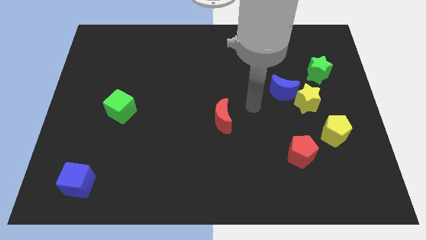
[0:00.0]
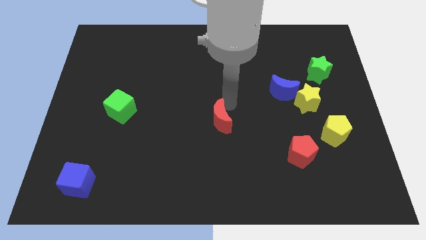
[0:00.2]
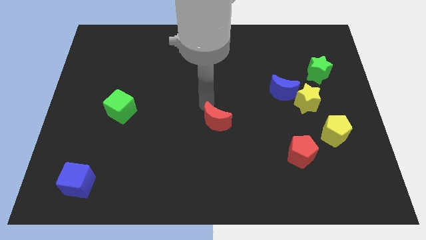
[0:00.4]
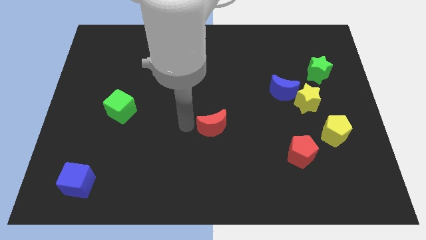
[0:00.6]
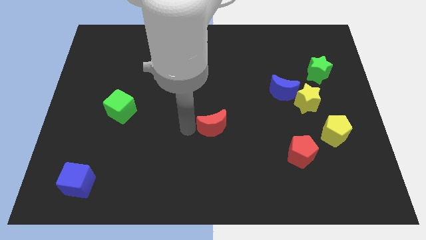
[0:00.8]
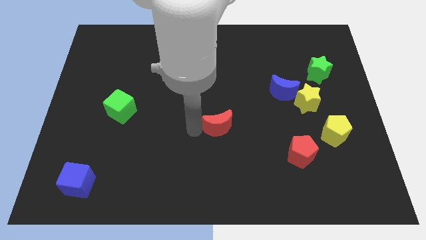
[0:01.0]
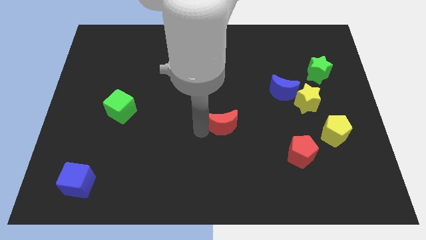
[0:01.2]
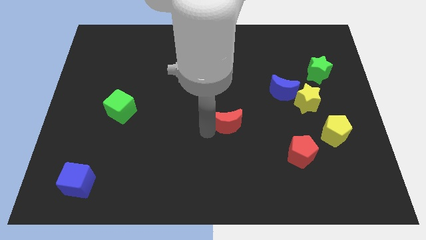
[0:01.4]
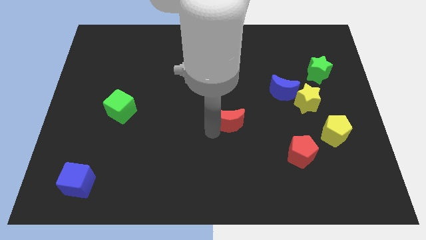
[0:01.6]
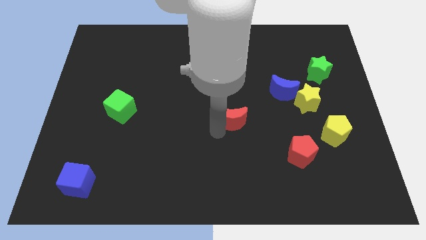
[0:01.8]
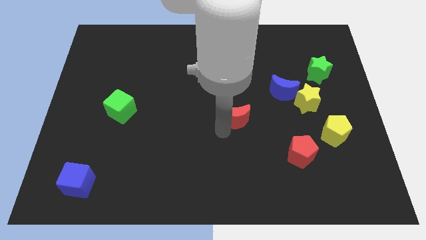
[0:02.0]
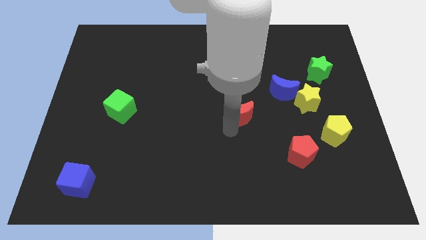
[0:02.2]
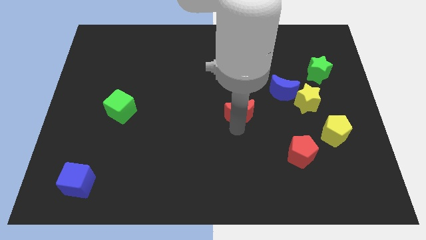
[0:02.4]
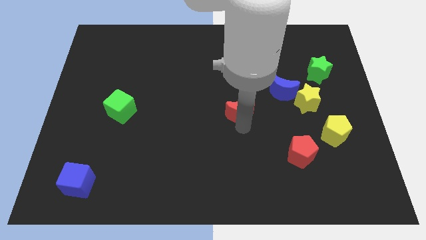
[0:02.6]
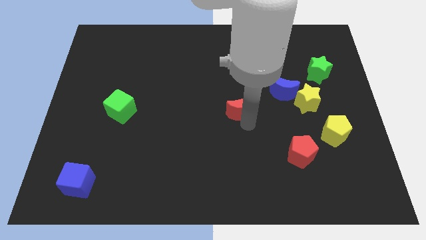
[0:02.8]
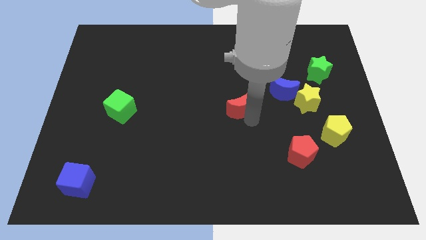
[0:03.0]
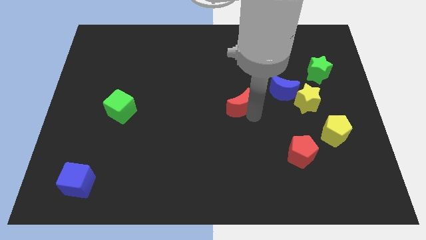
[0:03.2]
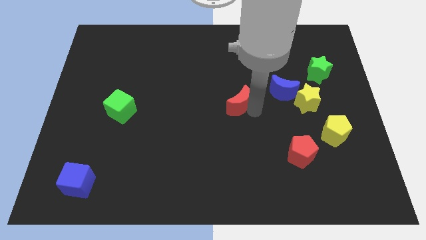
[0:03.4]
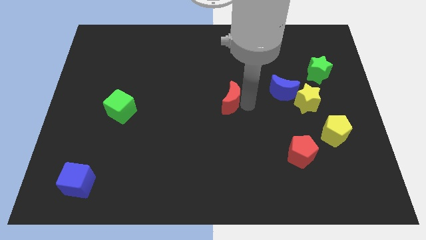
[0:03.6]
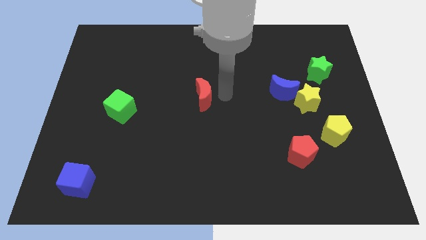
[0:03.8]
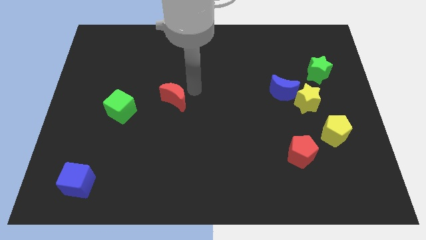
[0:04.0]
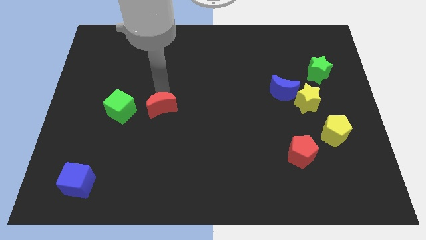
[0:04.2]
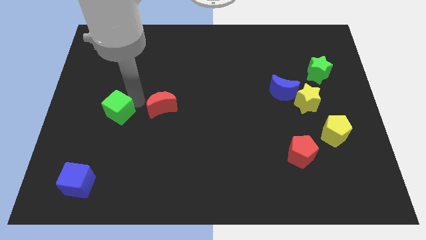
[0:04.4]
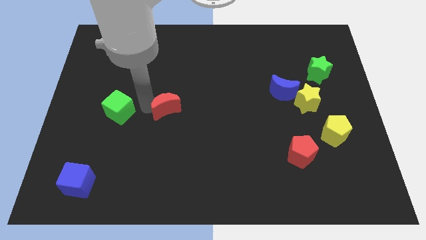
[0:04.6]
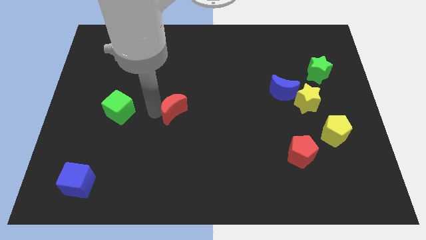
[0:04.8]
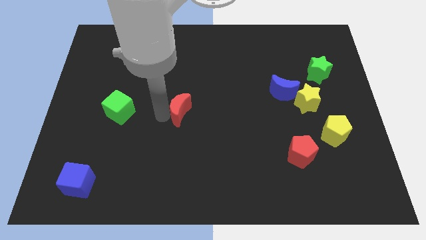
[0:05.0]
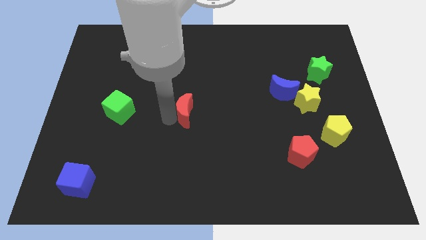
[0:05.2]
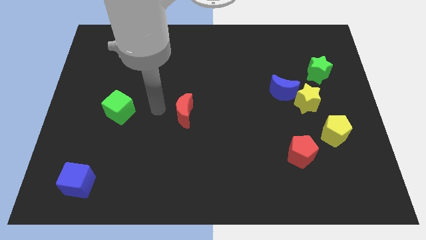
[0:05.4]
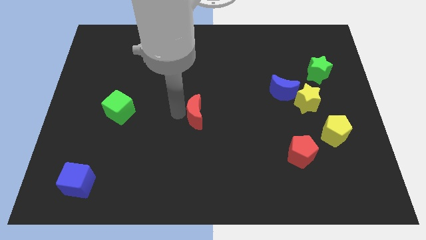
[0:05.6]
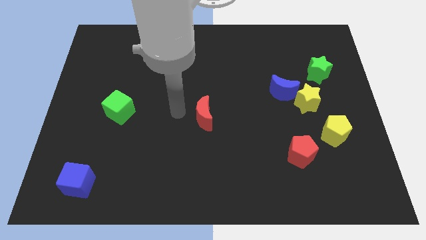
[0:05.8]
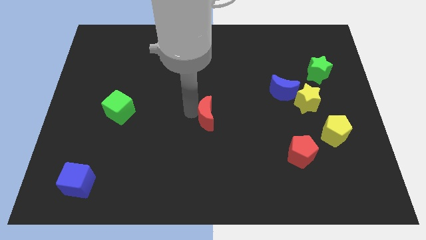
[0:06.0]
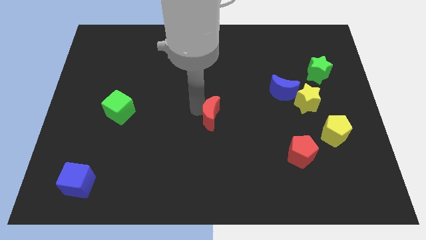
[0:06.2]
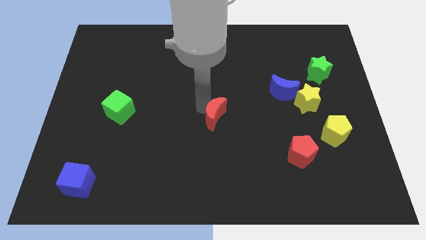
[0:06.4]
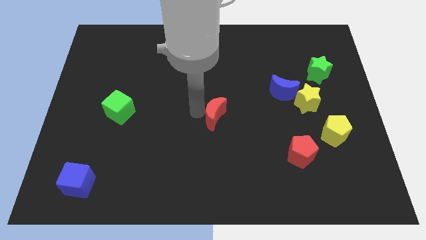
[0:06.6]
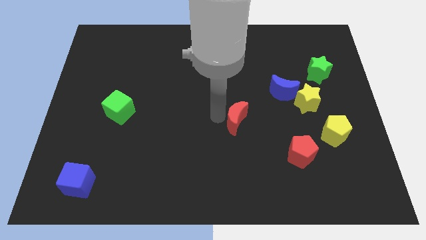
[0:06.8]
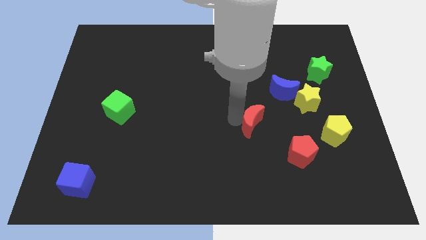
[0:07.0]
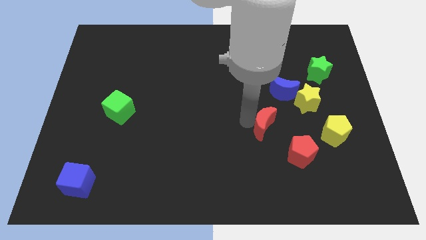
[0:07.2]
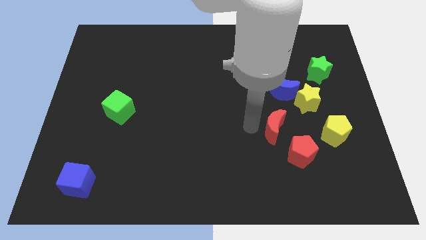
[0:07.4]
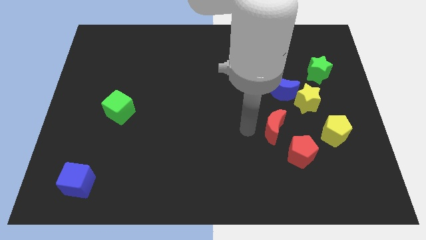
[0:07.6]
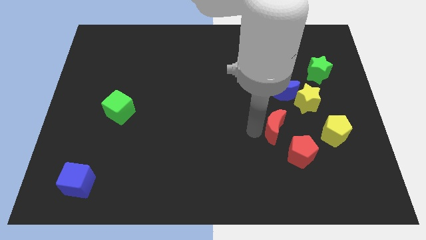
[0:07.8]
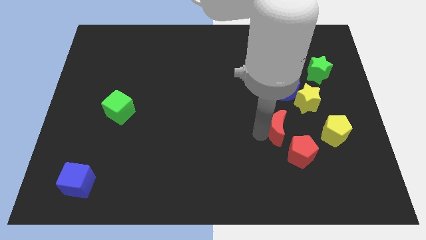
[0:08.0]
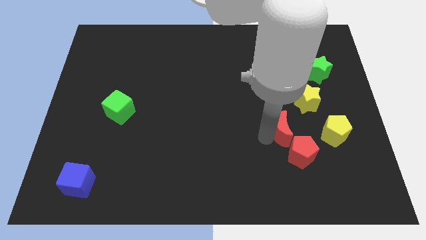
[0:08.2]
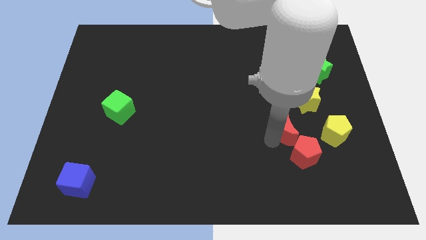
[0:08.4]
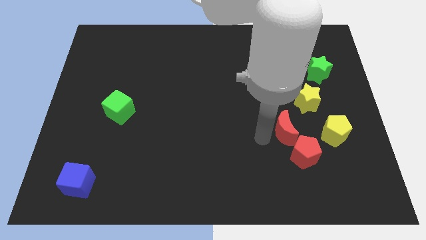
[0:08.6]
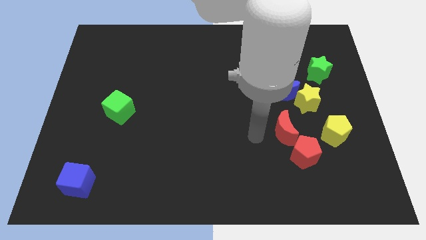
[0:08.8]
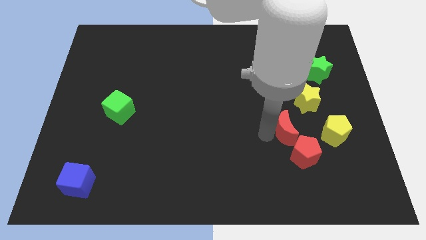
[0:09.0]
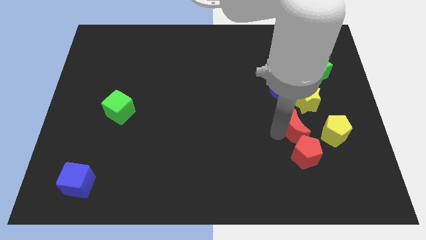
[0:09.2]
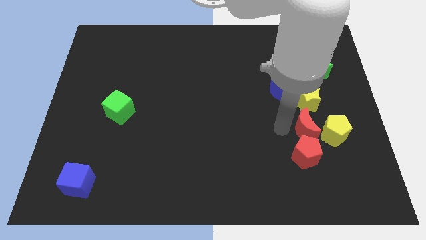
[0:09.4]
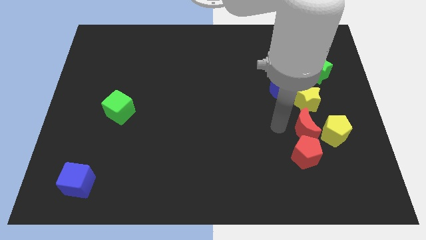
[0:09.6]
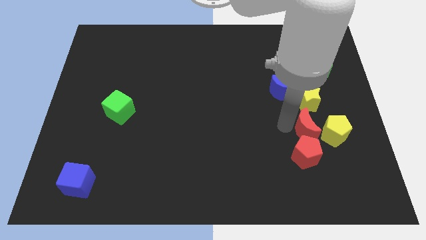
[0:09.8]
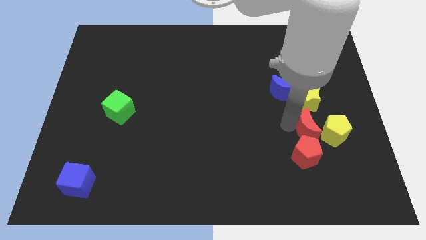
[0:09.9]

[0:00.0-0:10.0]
put the red moon close to the yellow pentagon

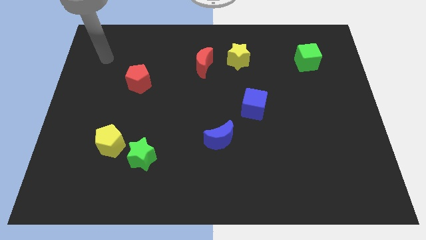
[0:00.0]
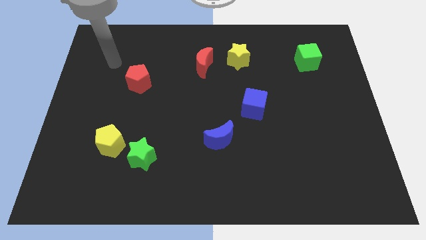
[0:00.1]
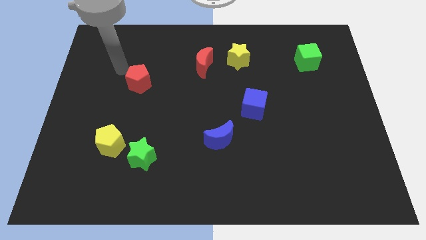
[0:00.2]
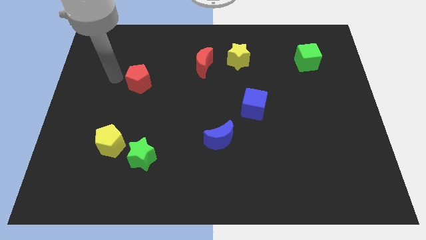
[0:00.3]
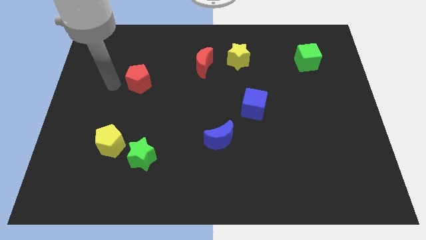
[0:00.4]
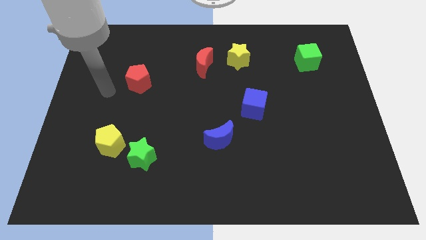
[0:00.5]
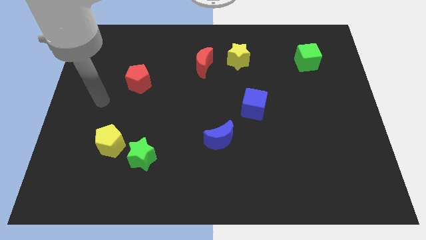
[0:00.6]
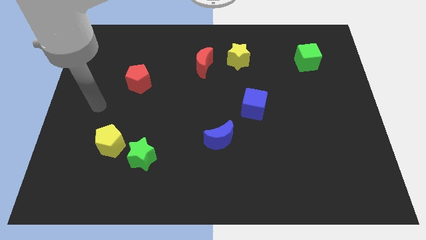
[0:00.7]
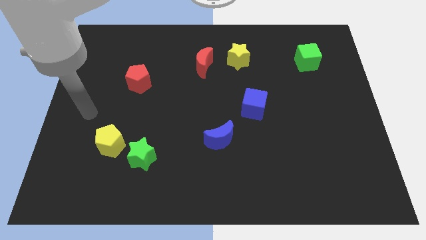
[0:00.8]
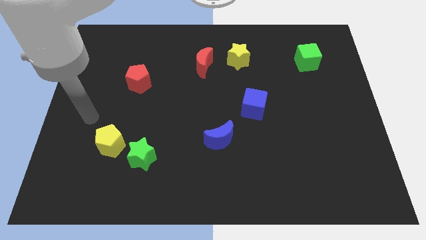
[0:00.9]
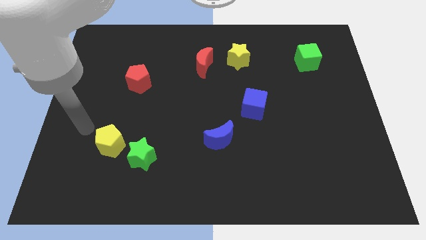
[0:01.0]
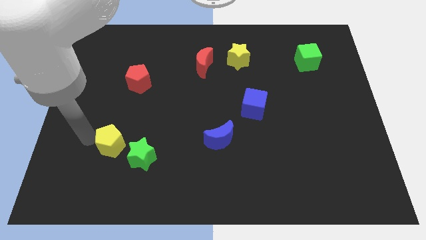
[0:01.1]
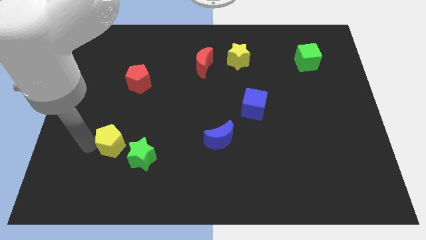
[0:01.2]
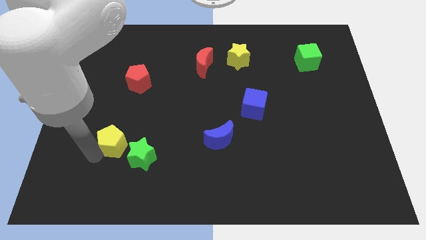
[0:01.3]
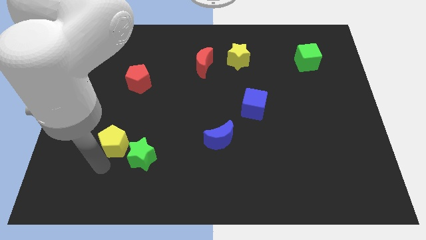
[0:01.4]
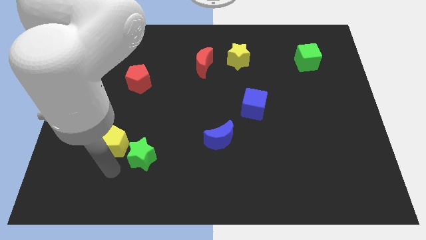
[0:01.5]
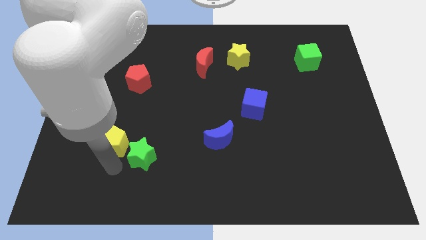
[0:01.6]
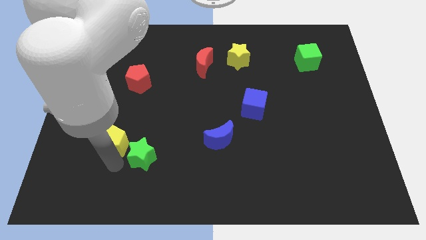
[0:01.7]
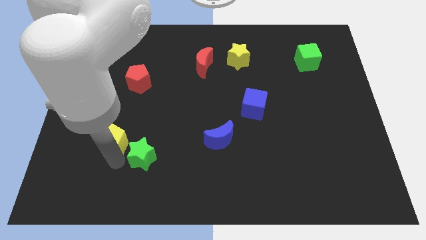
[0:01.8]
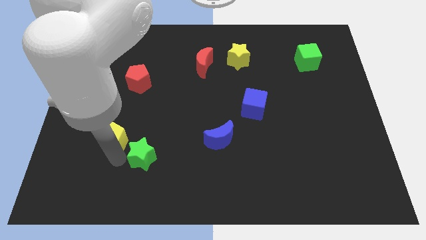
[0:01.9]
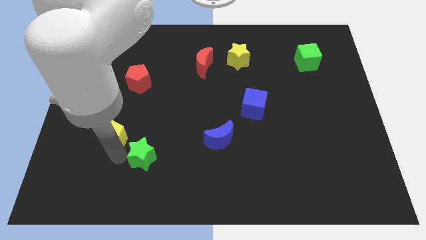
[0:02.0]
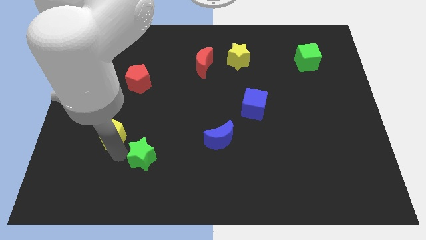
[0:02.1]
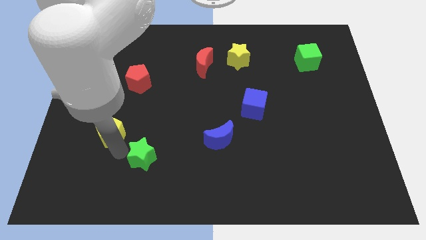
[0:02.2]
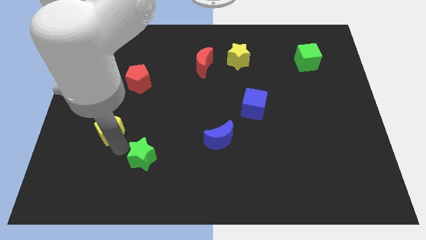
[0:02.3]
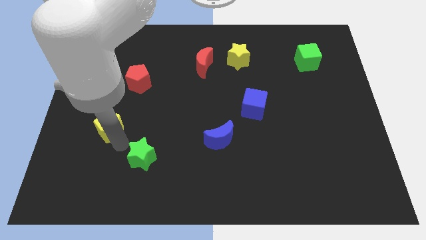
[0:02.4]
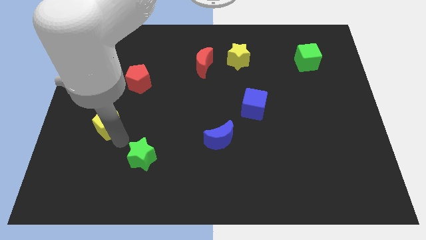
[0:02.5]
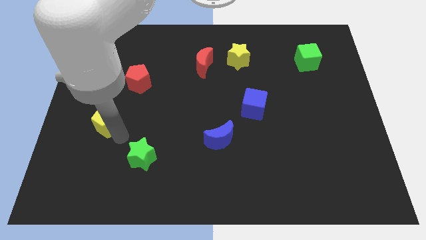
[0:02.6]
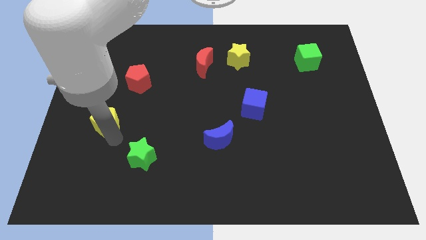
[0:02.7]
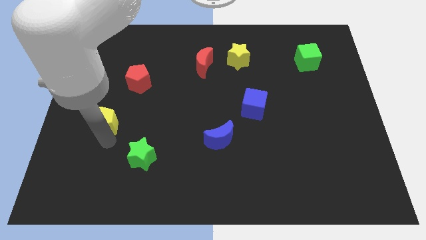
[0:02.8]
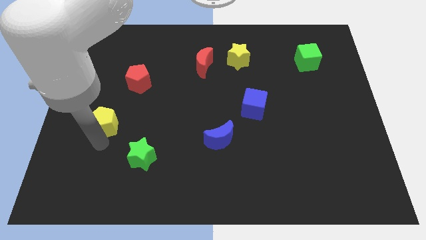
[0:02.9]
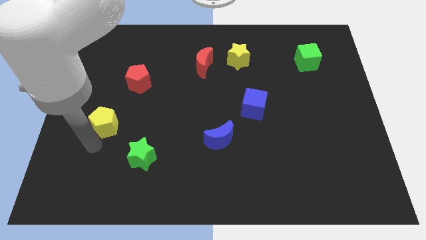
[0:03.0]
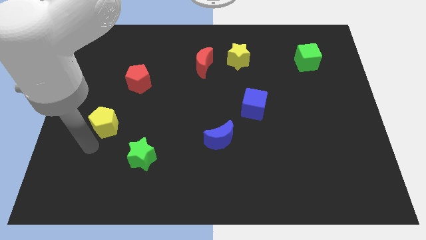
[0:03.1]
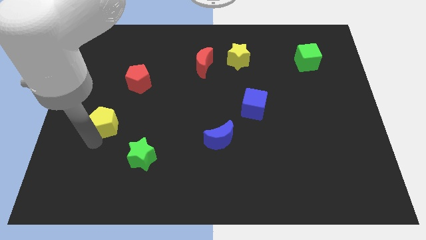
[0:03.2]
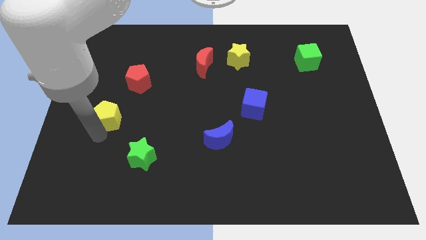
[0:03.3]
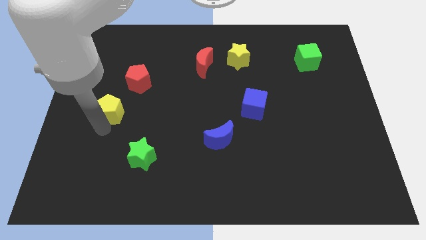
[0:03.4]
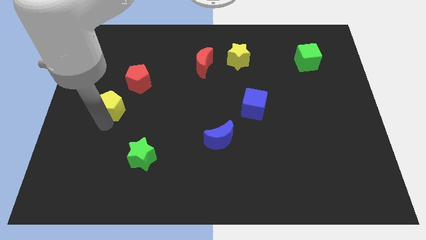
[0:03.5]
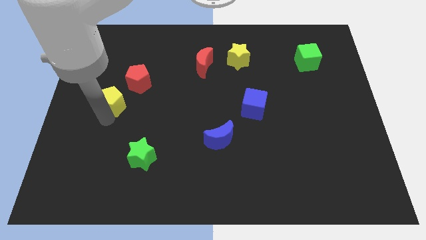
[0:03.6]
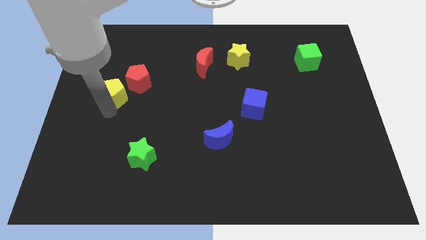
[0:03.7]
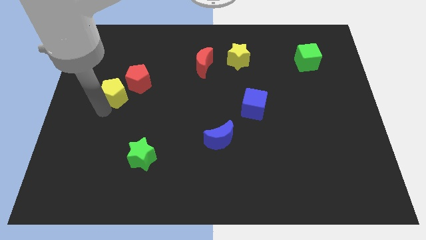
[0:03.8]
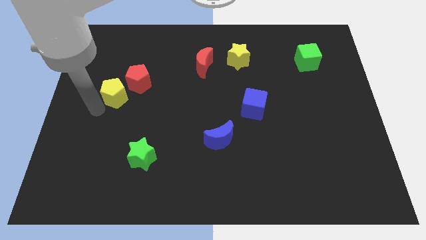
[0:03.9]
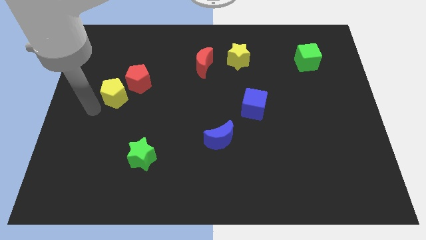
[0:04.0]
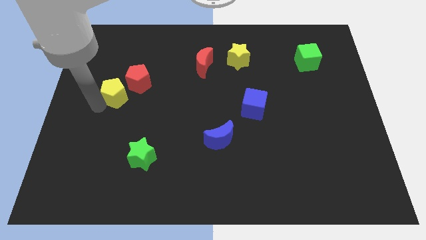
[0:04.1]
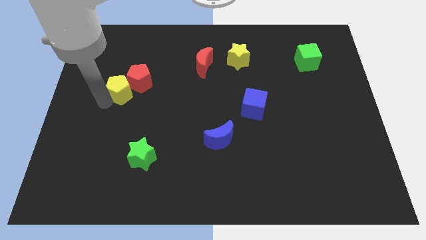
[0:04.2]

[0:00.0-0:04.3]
move the yellow pentagon towards the red pentagon
